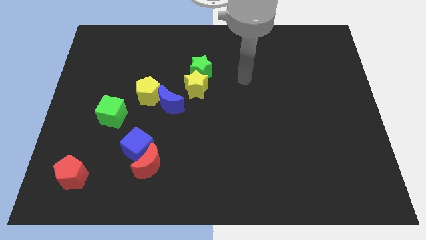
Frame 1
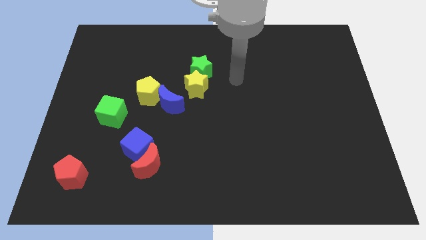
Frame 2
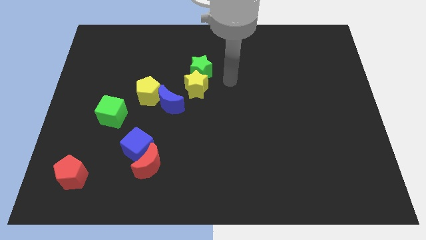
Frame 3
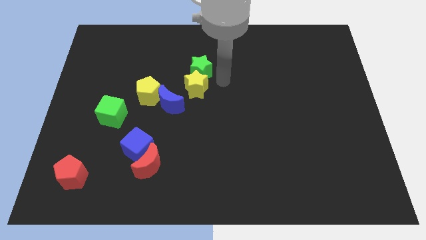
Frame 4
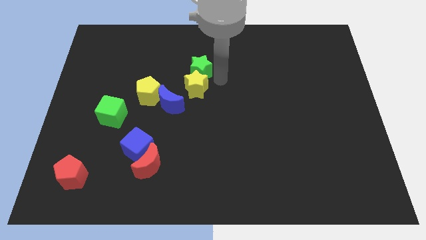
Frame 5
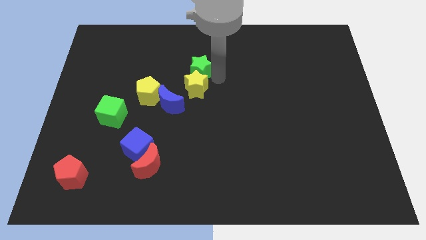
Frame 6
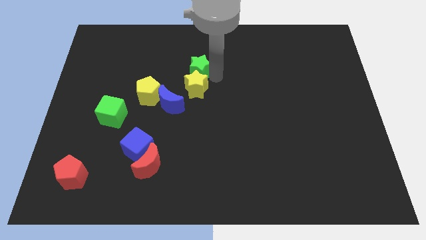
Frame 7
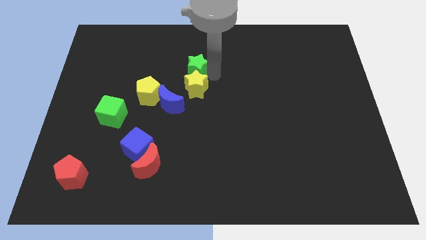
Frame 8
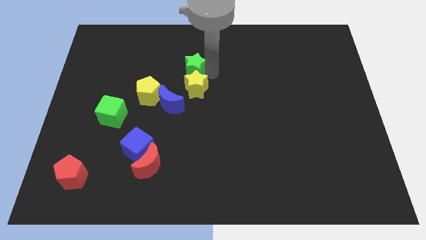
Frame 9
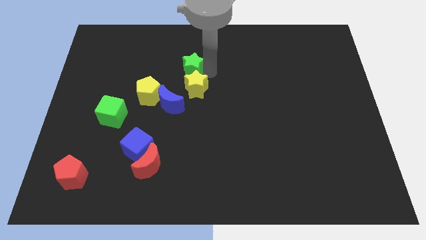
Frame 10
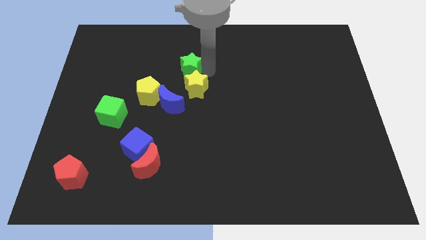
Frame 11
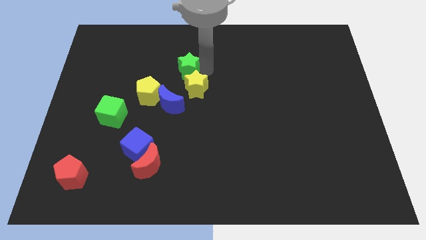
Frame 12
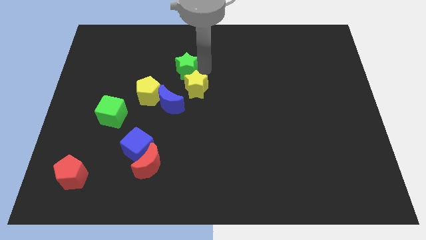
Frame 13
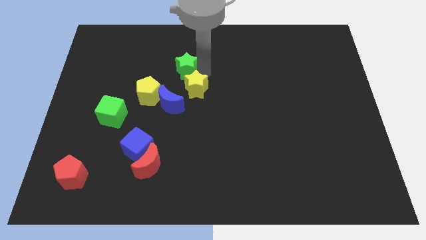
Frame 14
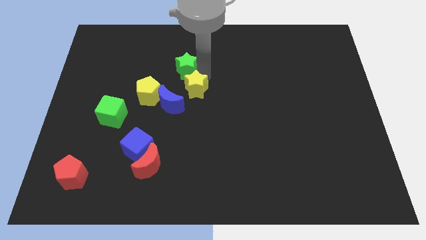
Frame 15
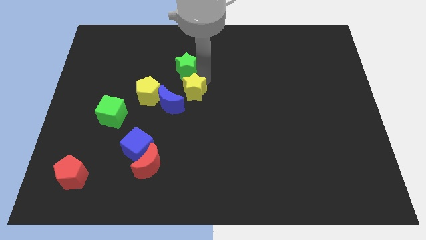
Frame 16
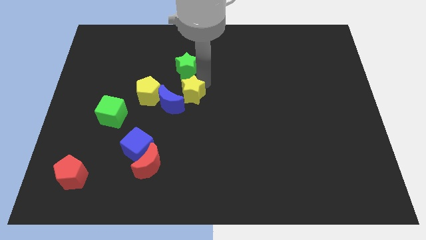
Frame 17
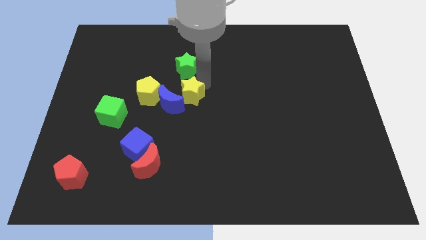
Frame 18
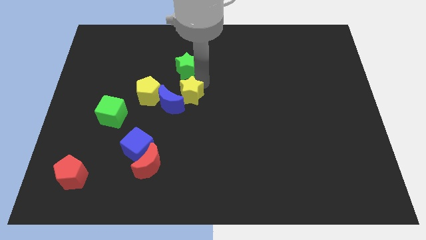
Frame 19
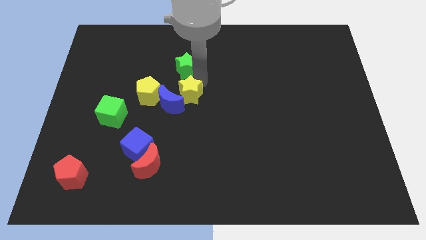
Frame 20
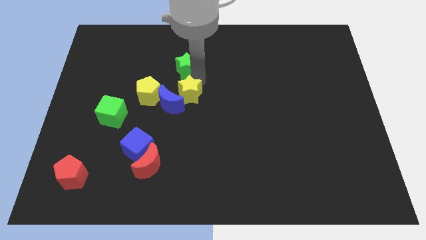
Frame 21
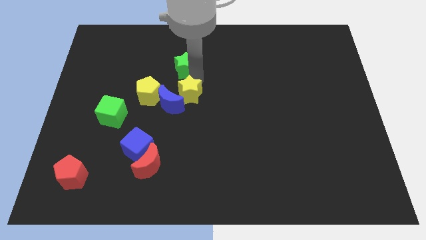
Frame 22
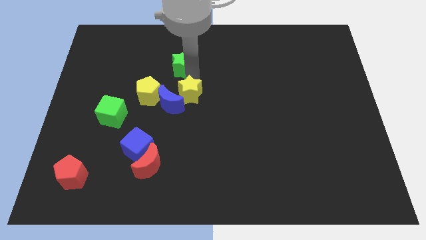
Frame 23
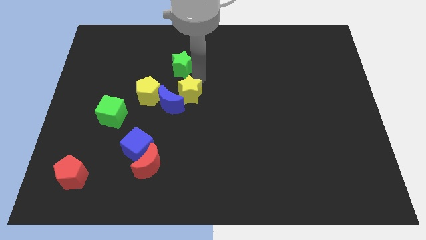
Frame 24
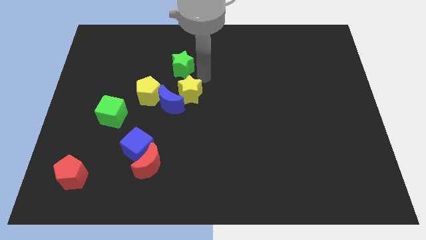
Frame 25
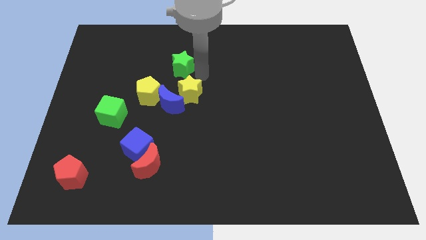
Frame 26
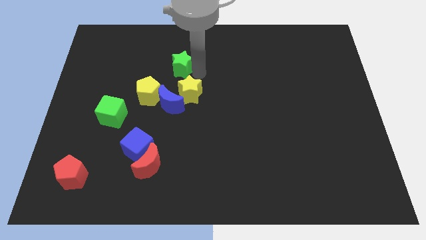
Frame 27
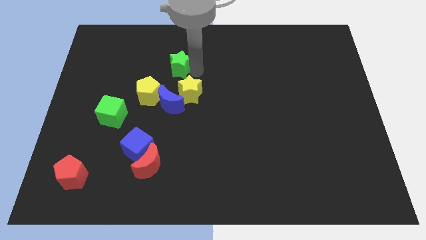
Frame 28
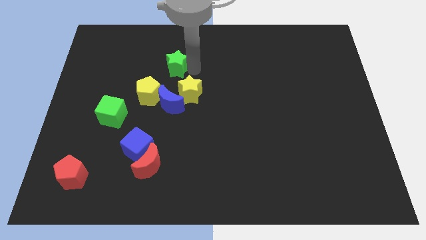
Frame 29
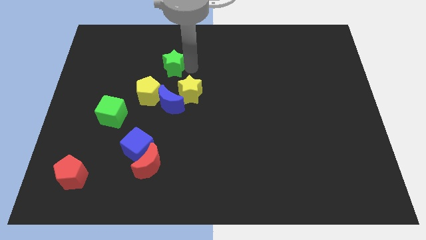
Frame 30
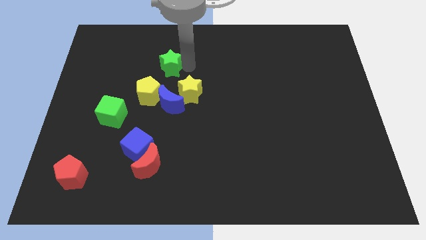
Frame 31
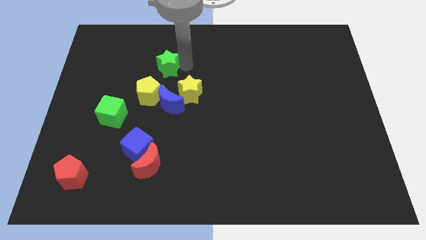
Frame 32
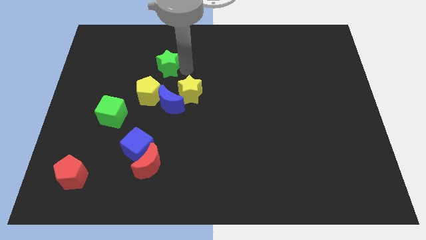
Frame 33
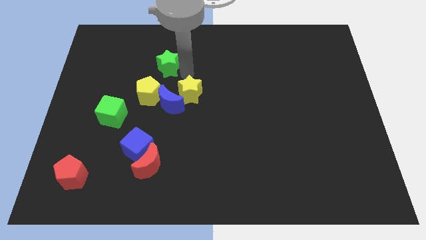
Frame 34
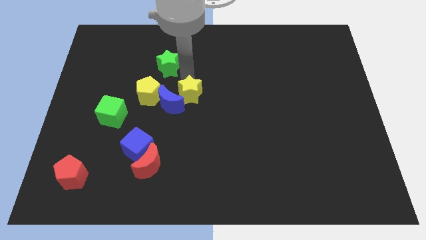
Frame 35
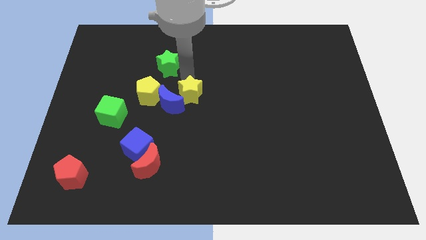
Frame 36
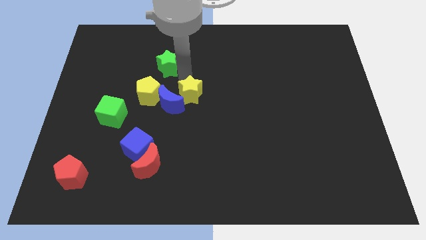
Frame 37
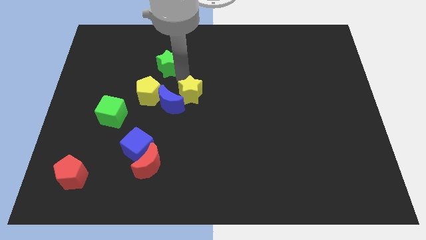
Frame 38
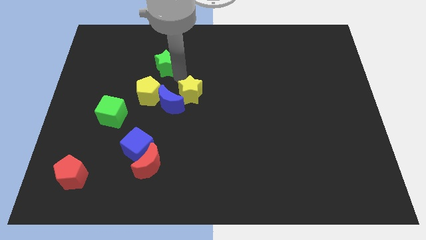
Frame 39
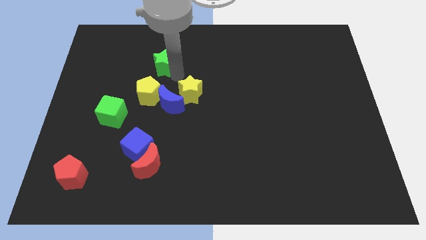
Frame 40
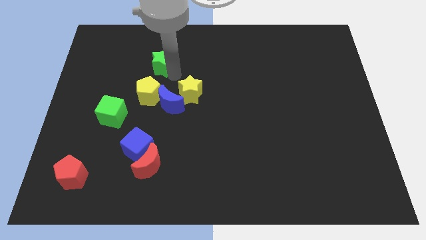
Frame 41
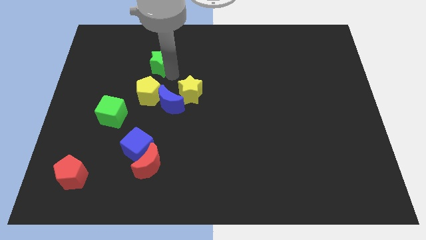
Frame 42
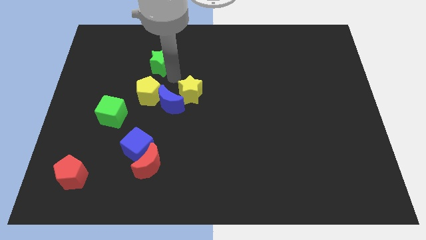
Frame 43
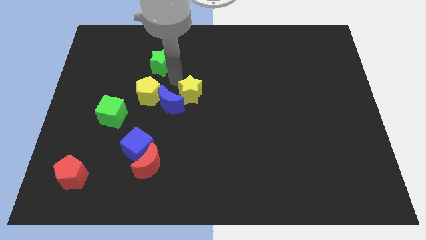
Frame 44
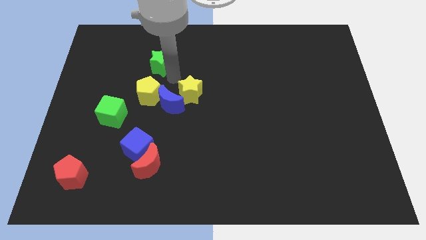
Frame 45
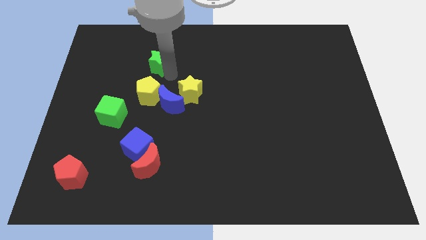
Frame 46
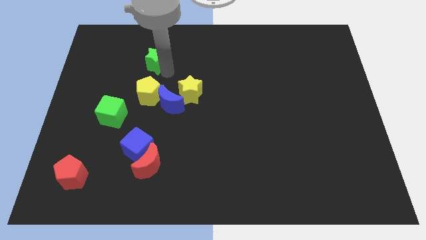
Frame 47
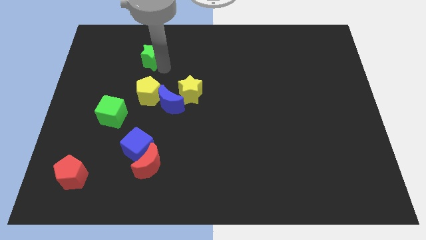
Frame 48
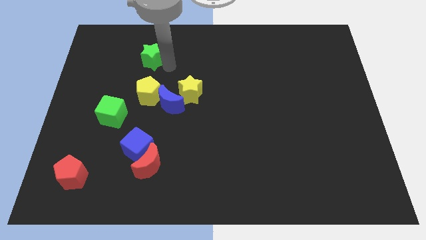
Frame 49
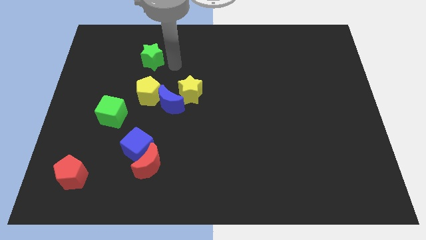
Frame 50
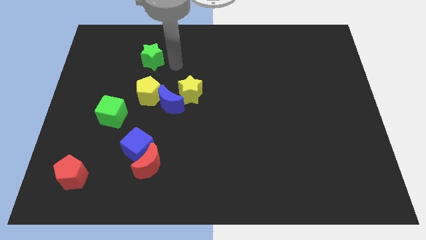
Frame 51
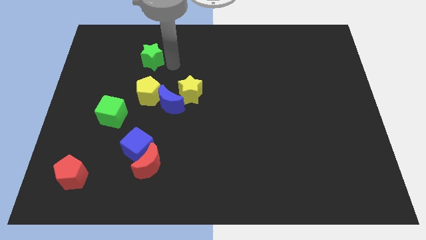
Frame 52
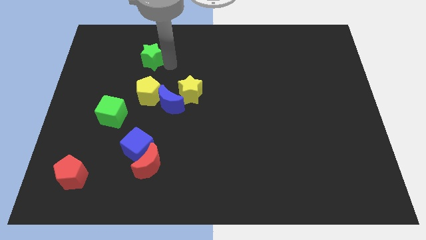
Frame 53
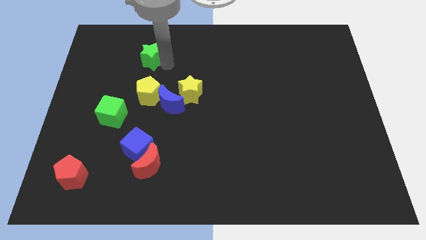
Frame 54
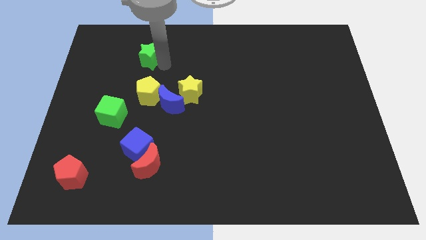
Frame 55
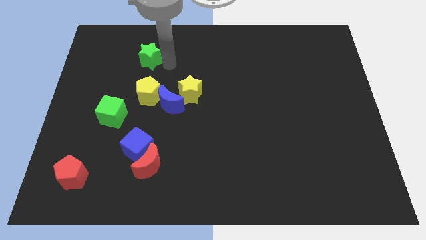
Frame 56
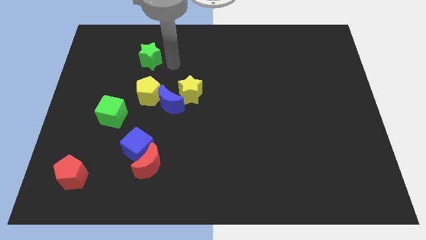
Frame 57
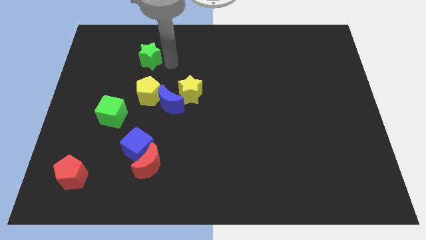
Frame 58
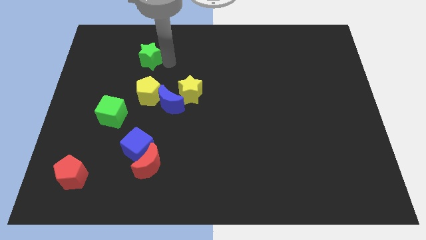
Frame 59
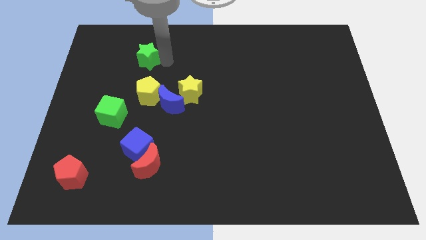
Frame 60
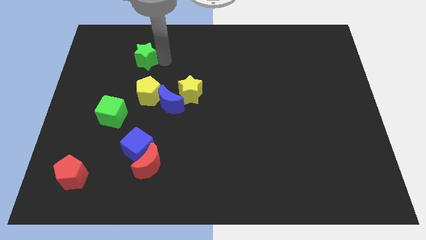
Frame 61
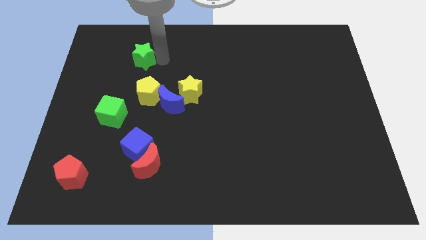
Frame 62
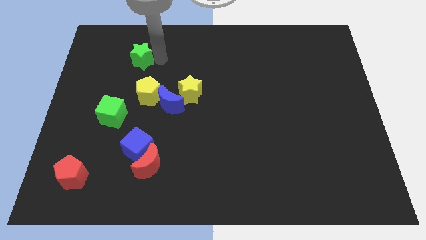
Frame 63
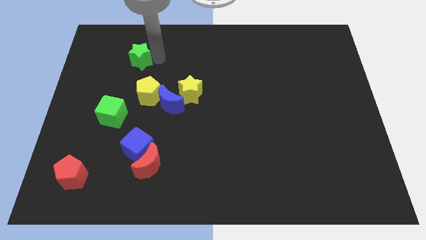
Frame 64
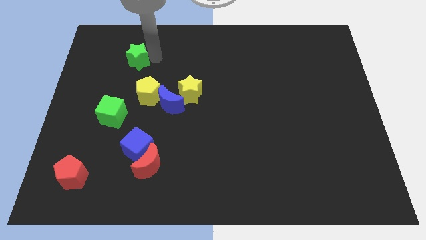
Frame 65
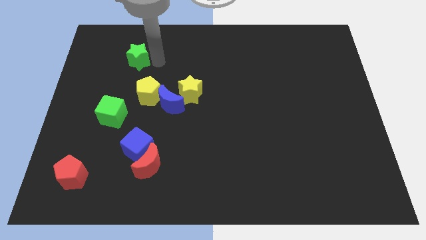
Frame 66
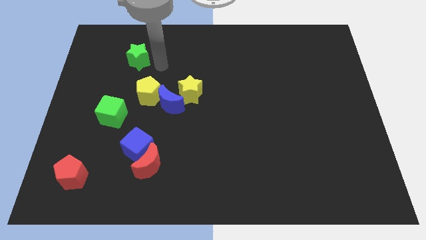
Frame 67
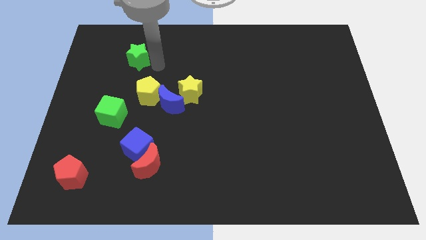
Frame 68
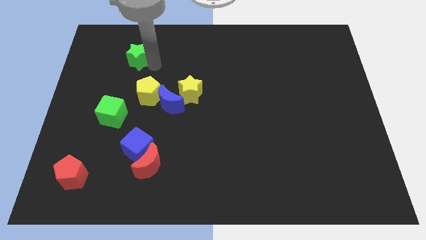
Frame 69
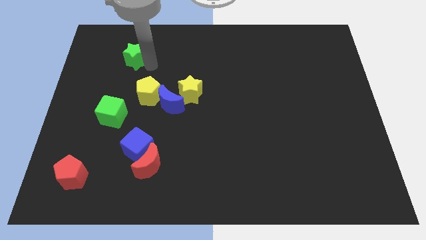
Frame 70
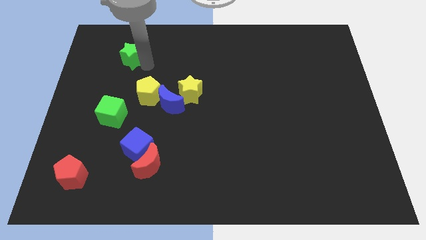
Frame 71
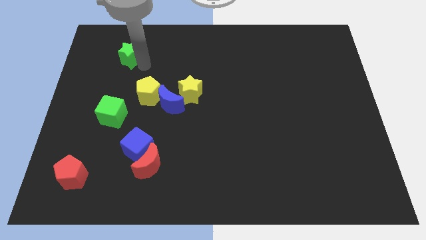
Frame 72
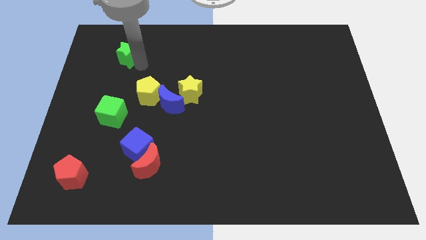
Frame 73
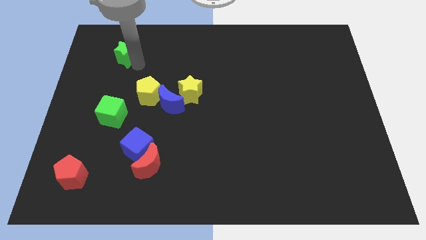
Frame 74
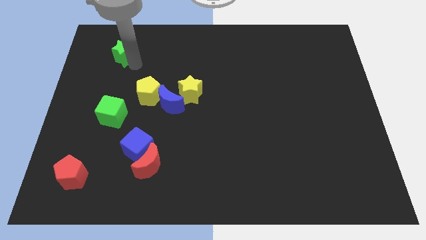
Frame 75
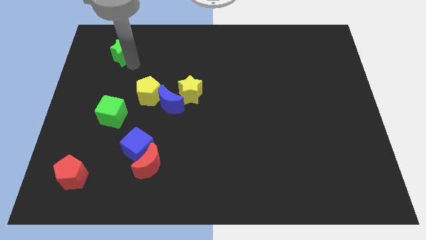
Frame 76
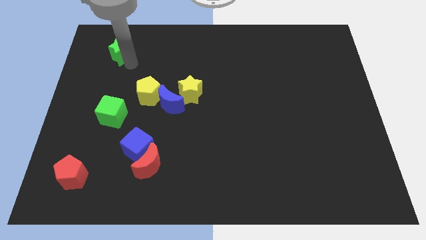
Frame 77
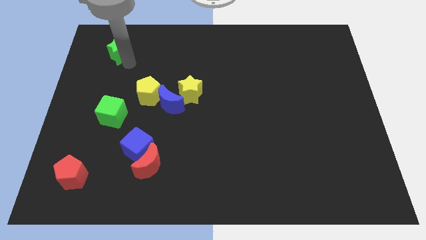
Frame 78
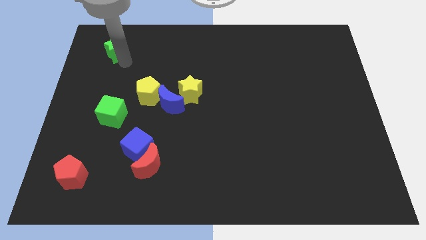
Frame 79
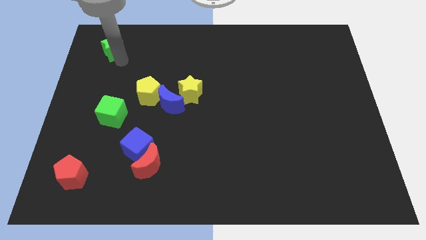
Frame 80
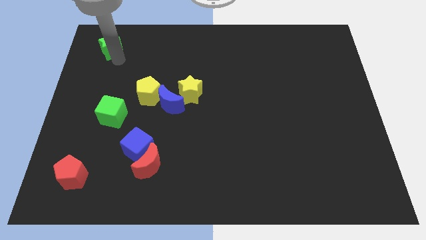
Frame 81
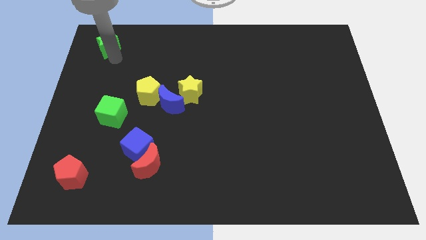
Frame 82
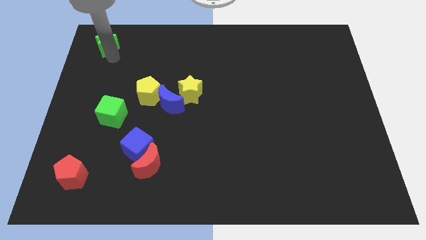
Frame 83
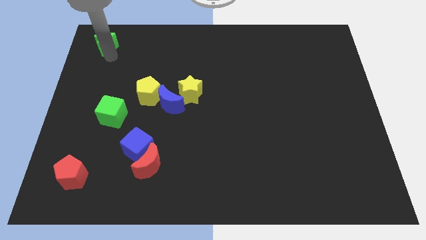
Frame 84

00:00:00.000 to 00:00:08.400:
slide the green star to the top left of the board
